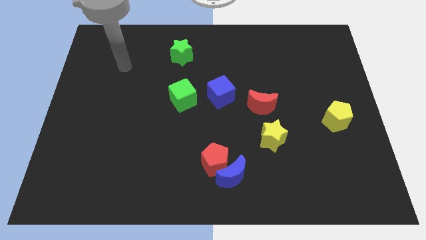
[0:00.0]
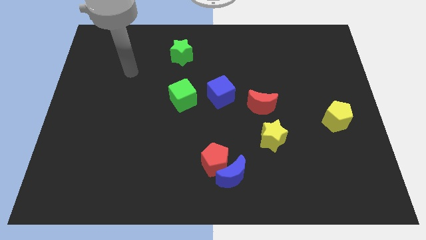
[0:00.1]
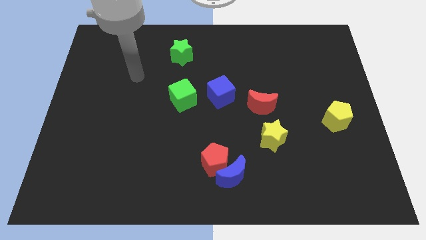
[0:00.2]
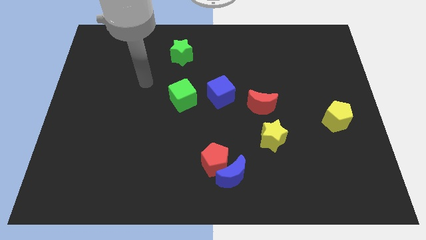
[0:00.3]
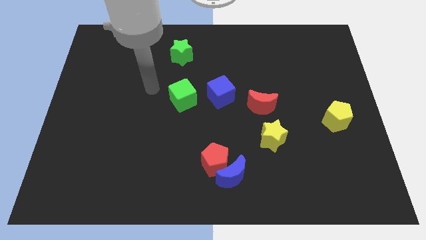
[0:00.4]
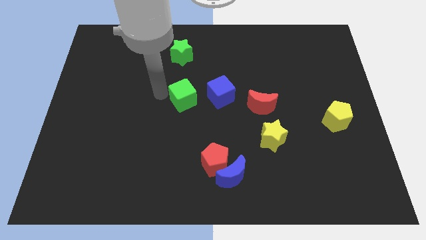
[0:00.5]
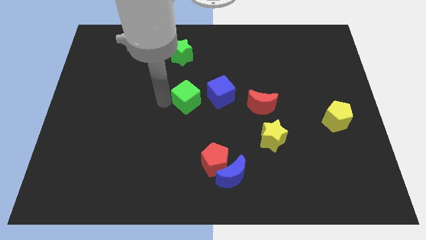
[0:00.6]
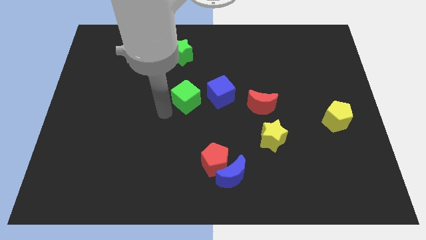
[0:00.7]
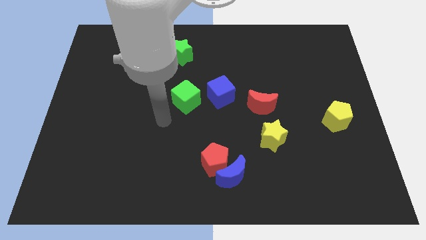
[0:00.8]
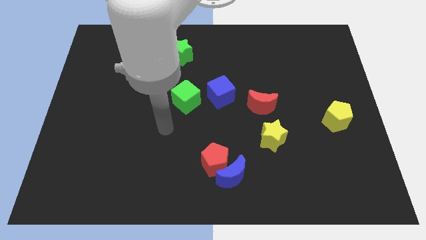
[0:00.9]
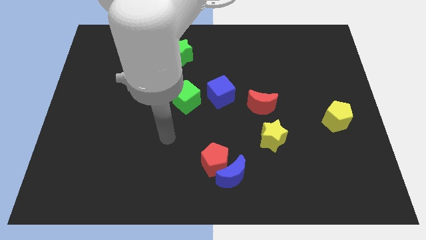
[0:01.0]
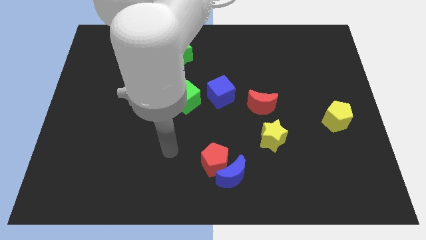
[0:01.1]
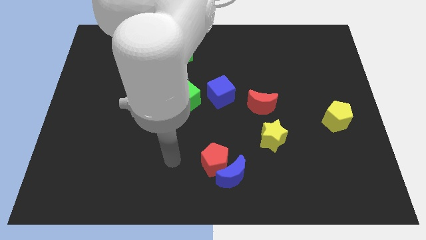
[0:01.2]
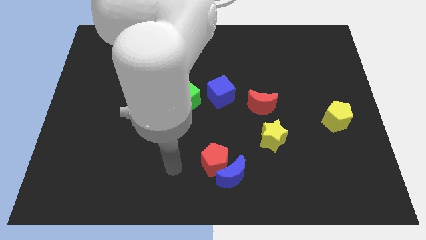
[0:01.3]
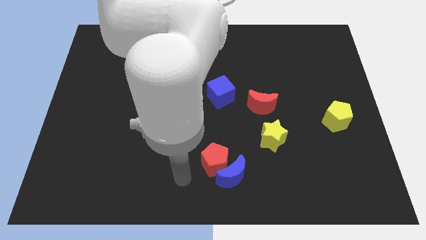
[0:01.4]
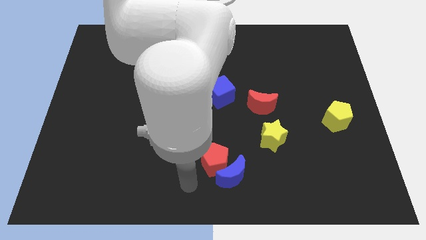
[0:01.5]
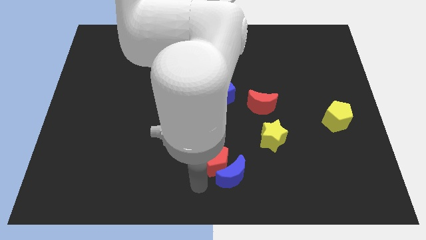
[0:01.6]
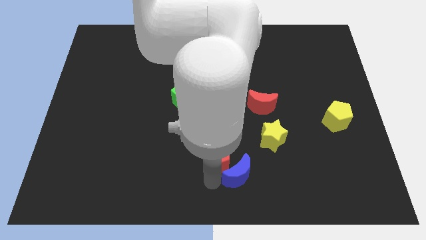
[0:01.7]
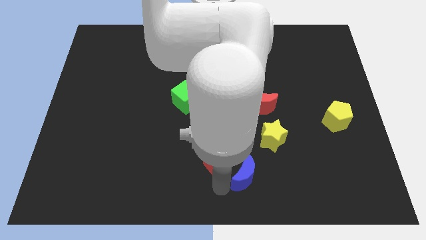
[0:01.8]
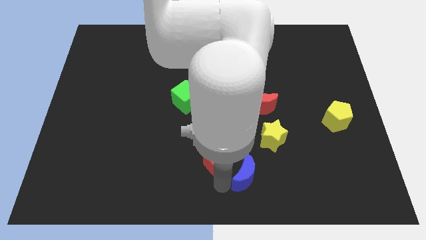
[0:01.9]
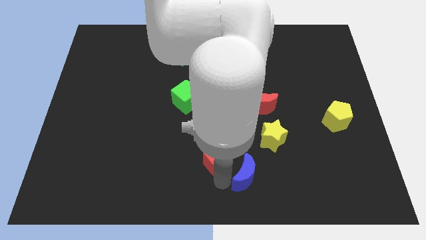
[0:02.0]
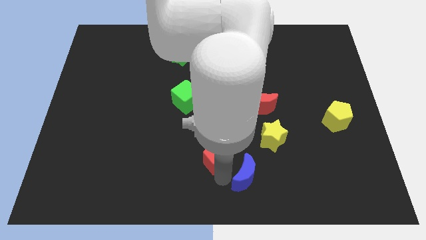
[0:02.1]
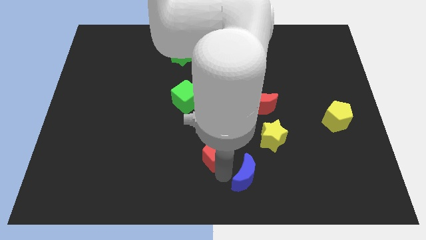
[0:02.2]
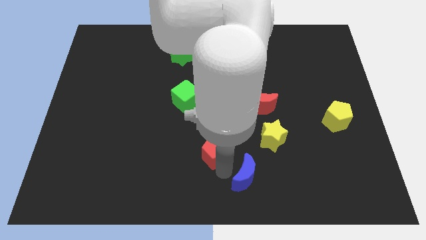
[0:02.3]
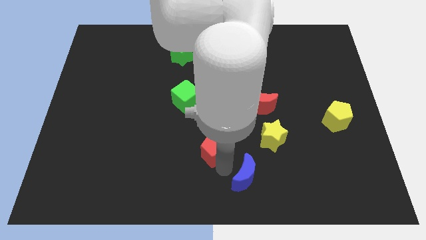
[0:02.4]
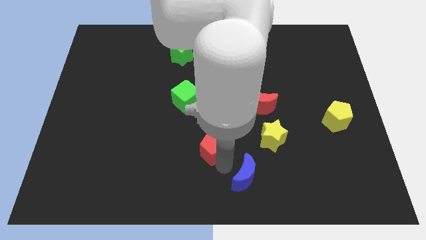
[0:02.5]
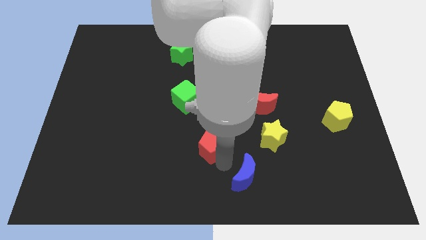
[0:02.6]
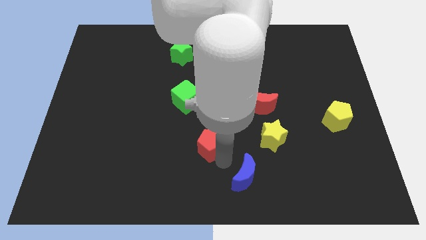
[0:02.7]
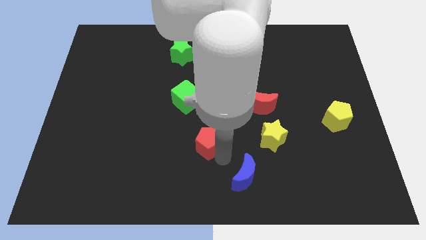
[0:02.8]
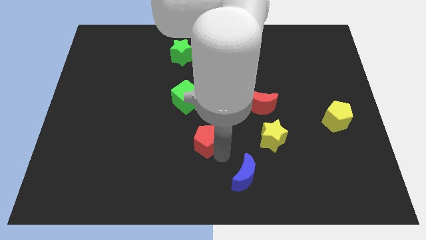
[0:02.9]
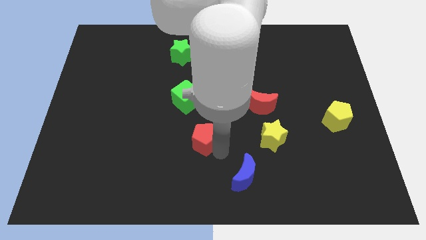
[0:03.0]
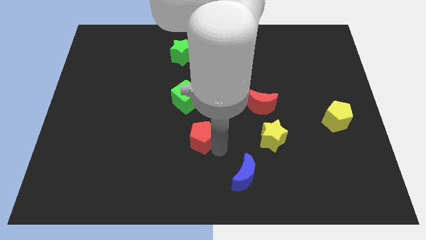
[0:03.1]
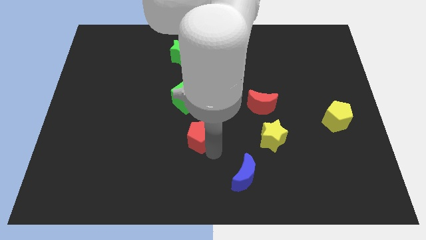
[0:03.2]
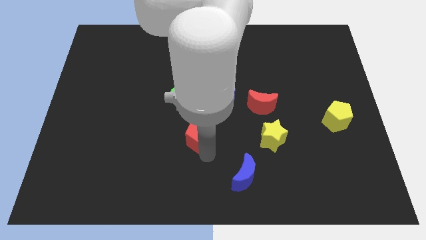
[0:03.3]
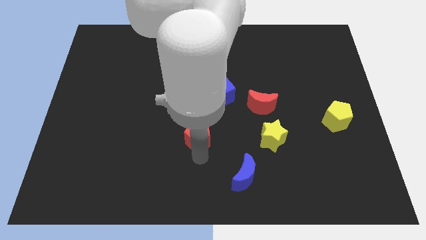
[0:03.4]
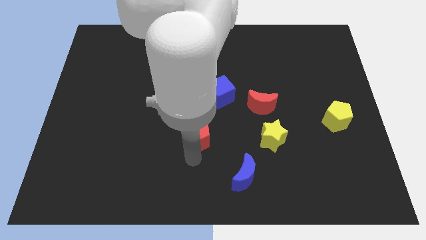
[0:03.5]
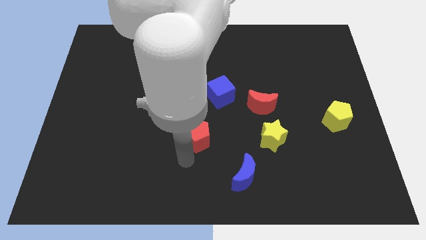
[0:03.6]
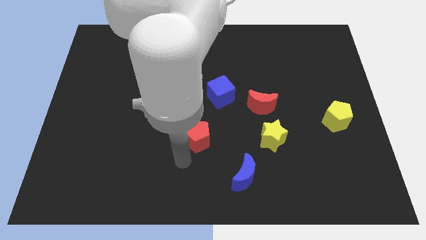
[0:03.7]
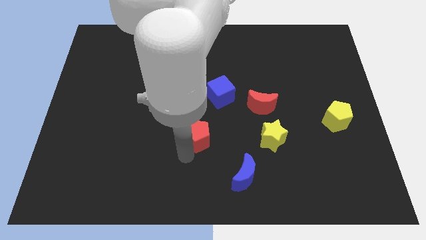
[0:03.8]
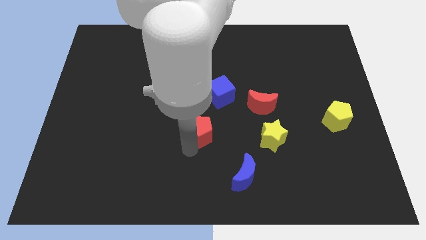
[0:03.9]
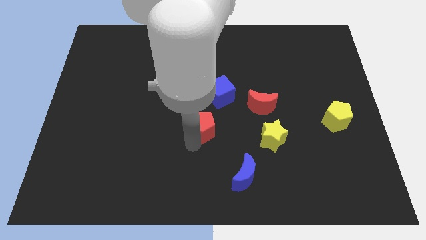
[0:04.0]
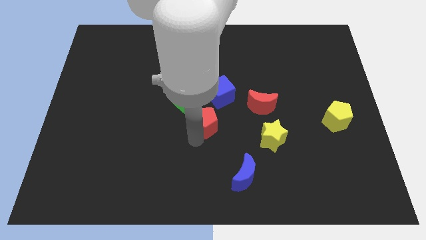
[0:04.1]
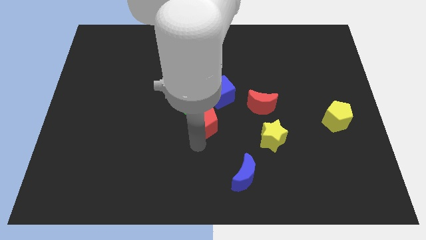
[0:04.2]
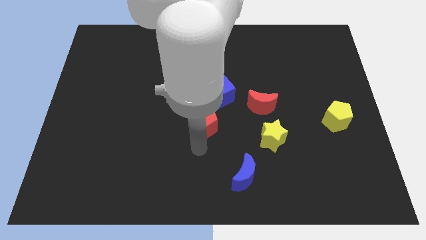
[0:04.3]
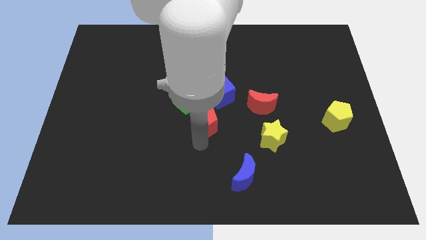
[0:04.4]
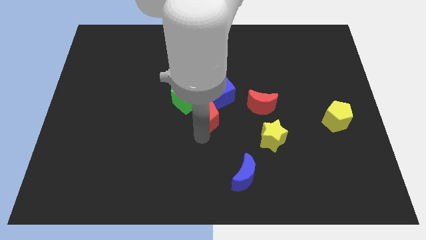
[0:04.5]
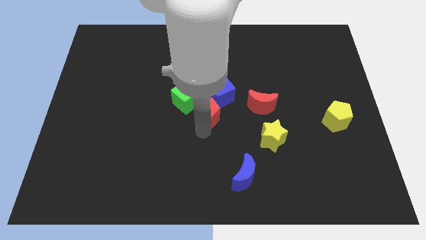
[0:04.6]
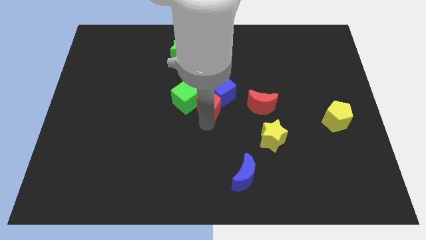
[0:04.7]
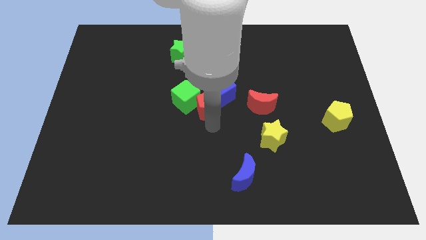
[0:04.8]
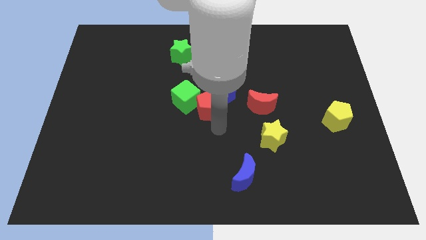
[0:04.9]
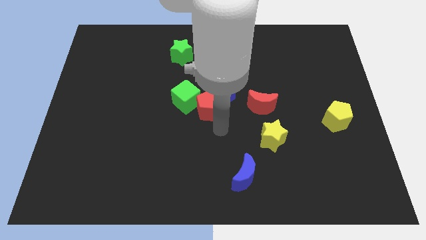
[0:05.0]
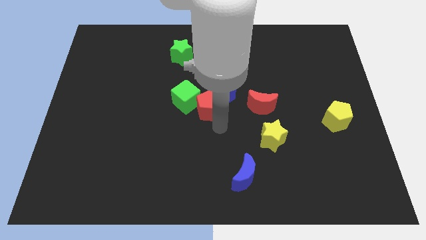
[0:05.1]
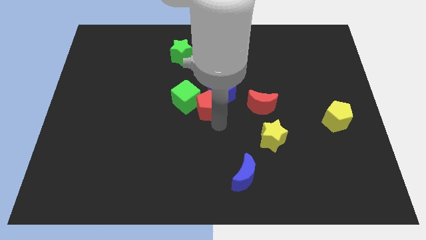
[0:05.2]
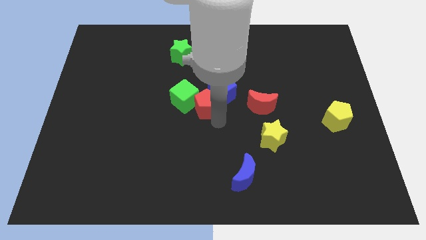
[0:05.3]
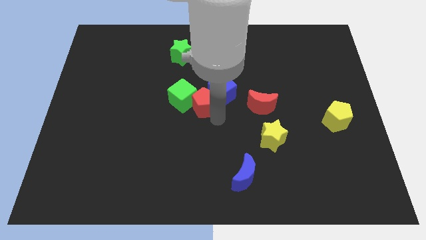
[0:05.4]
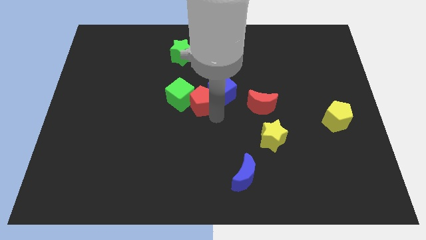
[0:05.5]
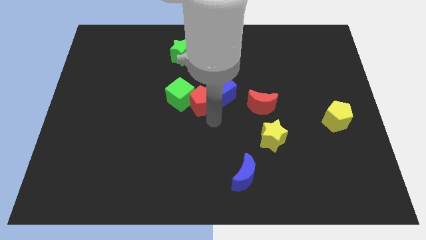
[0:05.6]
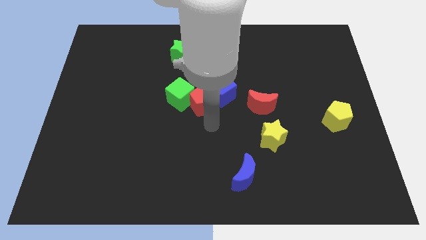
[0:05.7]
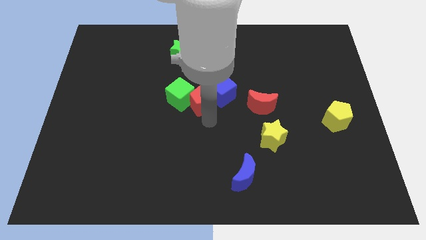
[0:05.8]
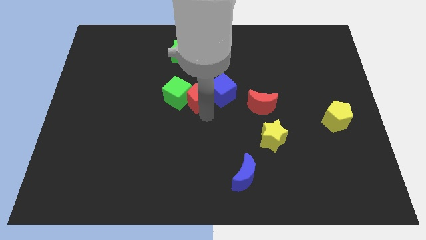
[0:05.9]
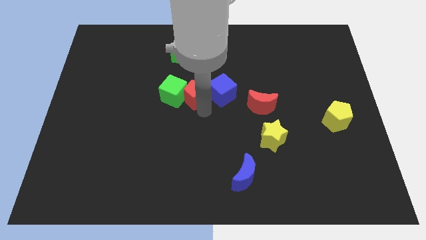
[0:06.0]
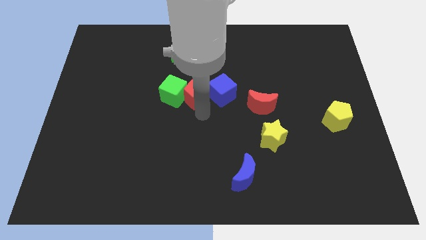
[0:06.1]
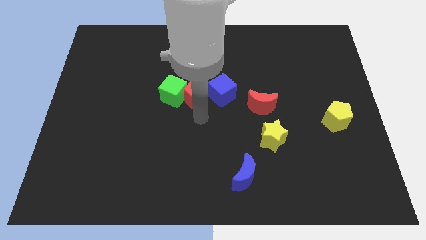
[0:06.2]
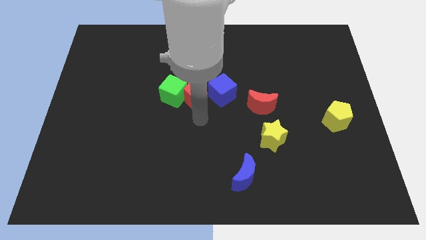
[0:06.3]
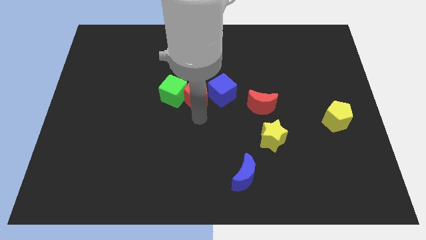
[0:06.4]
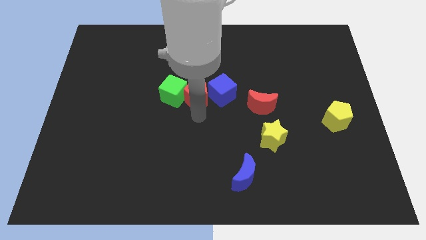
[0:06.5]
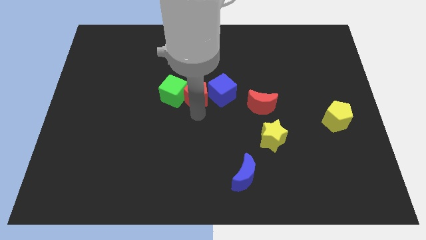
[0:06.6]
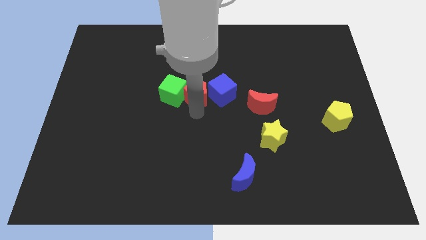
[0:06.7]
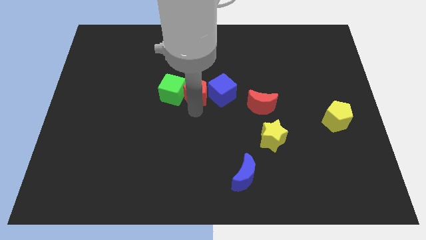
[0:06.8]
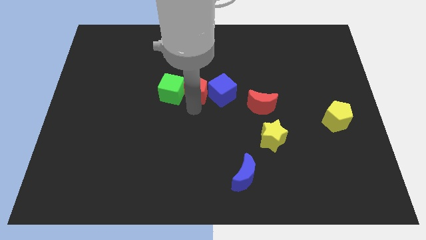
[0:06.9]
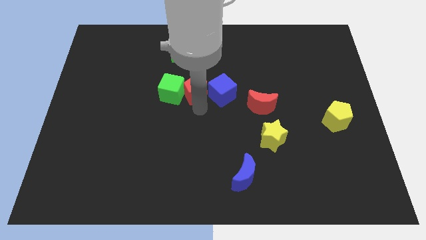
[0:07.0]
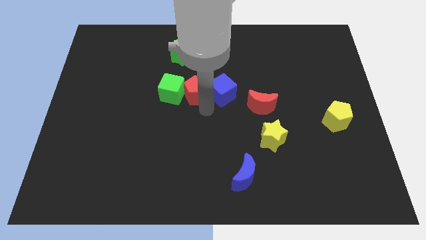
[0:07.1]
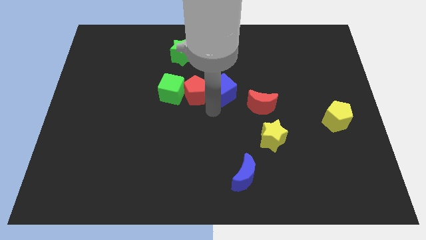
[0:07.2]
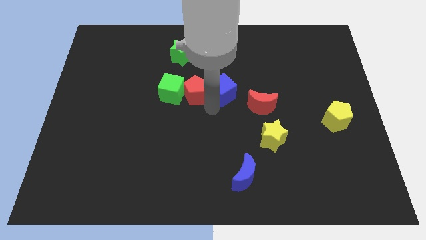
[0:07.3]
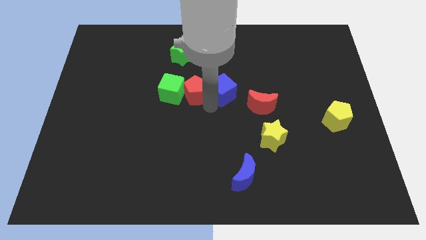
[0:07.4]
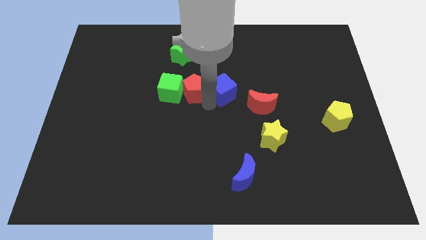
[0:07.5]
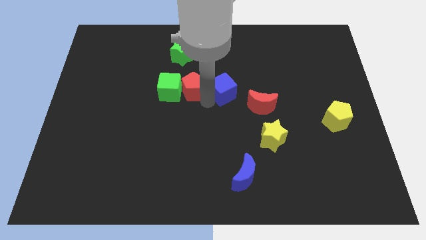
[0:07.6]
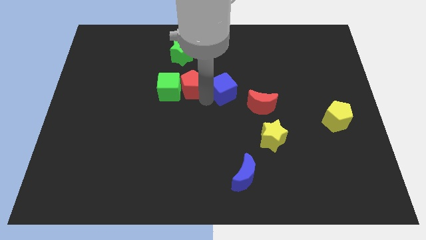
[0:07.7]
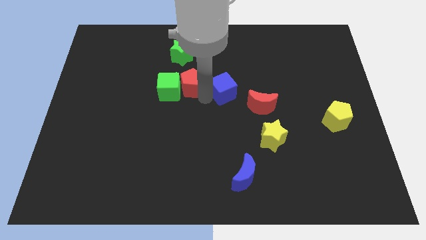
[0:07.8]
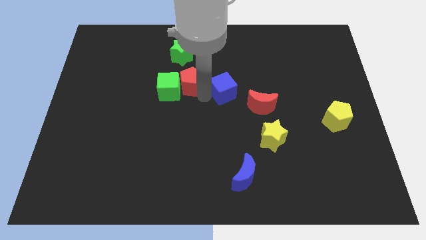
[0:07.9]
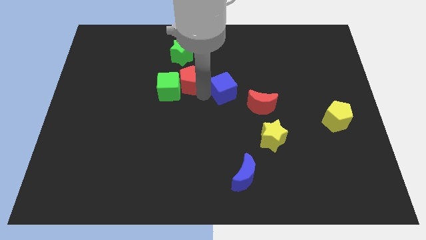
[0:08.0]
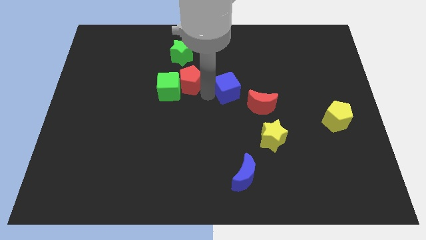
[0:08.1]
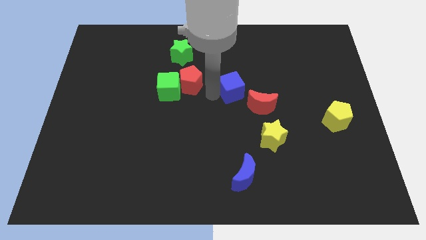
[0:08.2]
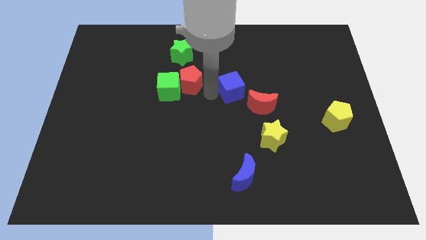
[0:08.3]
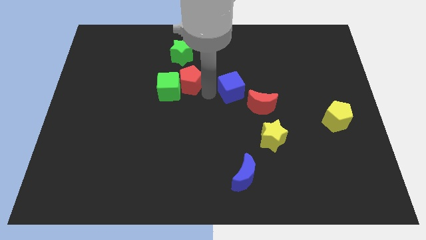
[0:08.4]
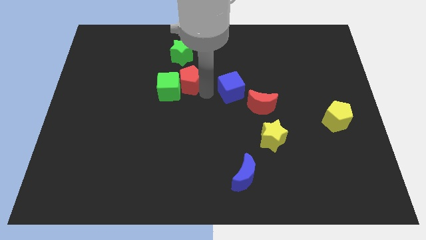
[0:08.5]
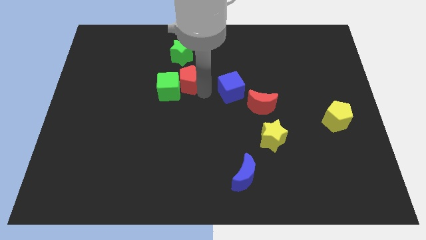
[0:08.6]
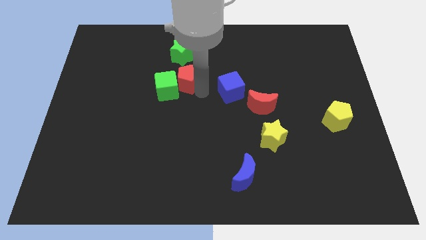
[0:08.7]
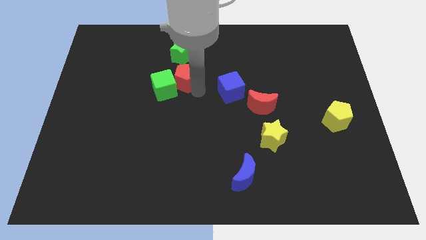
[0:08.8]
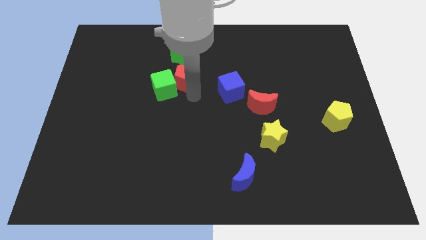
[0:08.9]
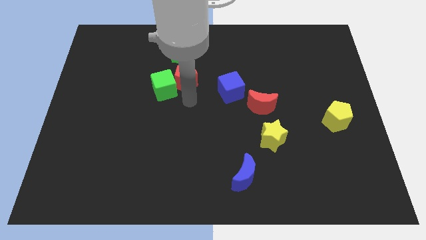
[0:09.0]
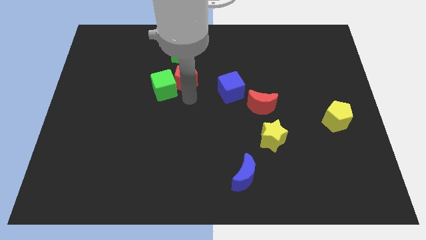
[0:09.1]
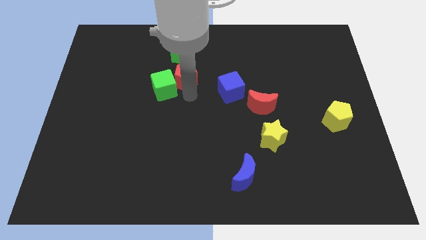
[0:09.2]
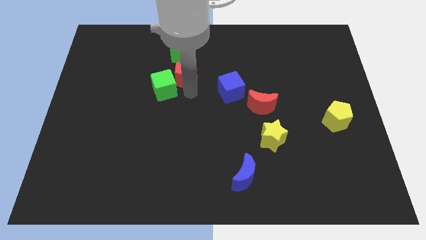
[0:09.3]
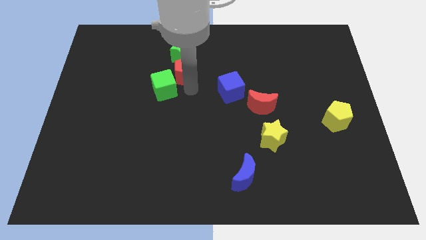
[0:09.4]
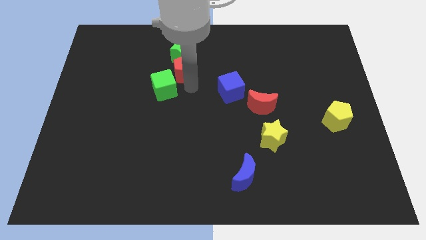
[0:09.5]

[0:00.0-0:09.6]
put the red pentagon to the green star
